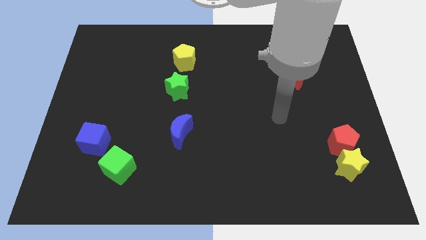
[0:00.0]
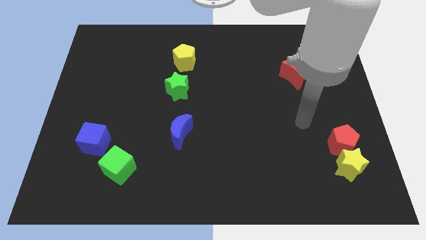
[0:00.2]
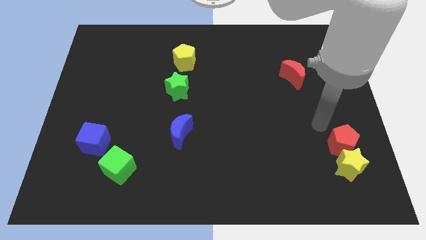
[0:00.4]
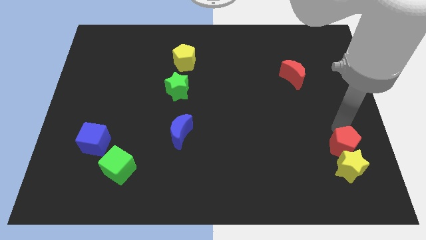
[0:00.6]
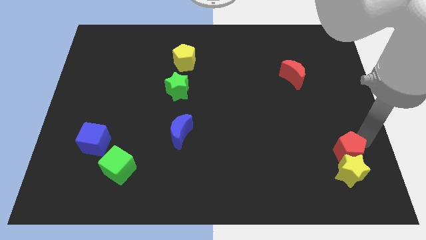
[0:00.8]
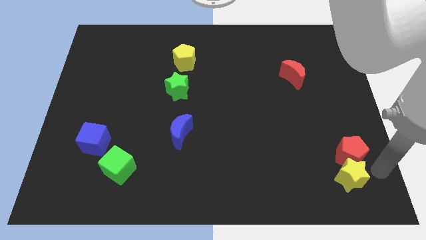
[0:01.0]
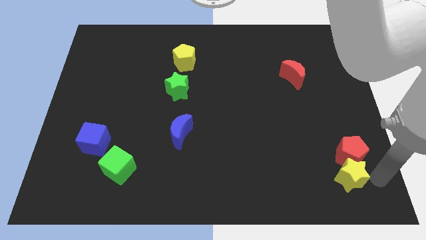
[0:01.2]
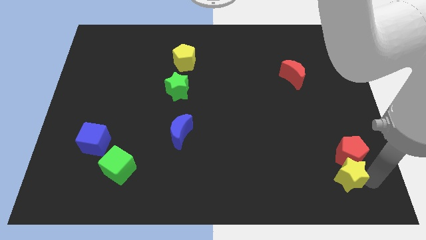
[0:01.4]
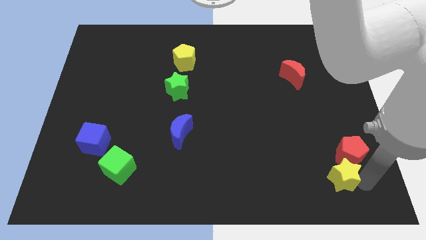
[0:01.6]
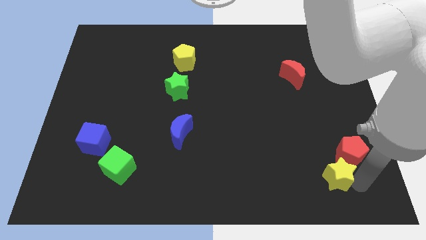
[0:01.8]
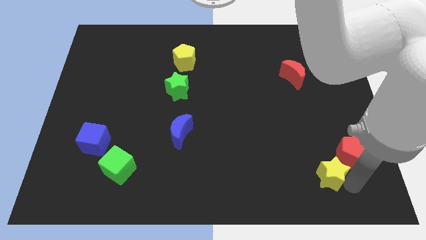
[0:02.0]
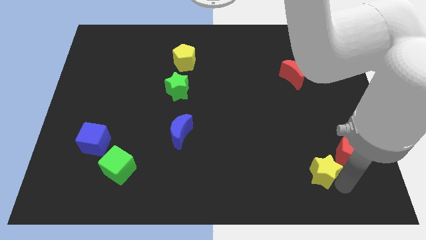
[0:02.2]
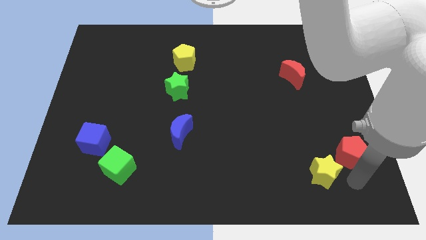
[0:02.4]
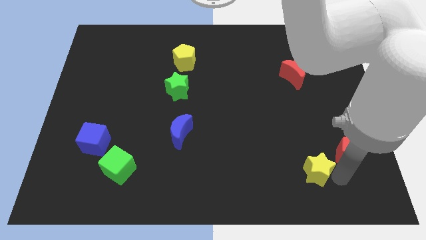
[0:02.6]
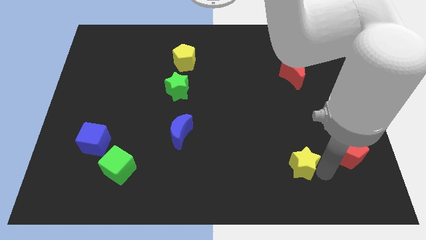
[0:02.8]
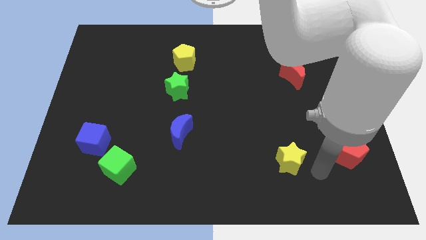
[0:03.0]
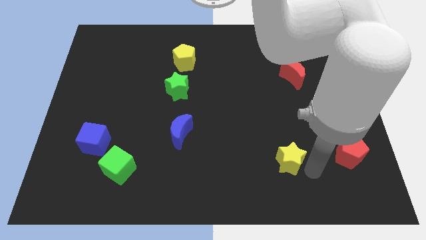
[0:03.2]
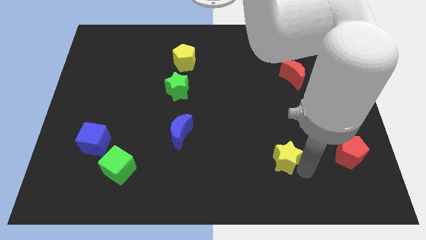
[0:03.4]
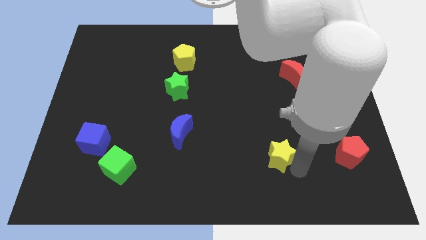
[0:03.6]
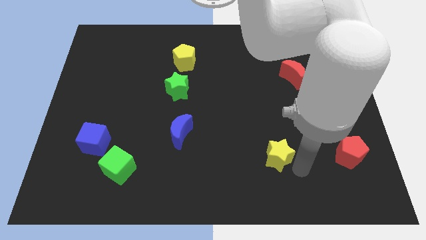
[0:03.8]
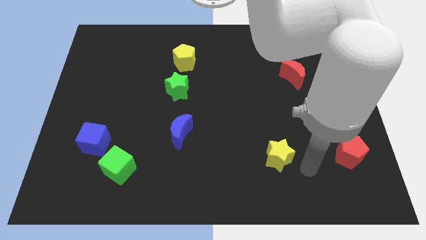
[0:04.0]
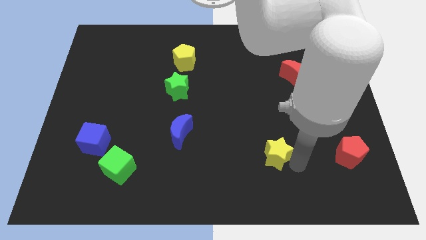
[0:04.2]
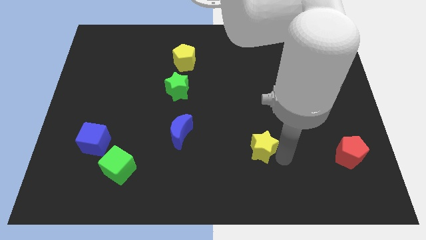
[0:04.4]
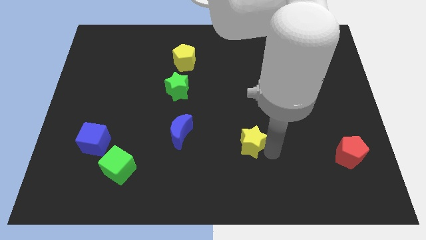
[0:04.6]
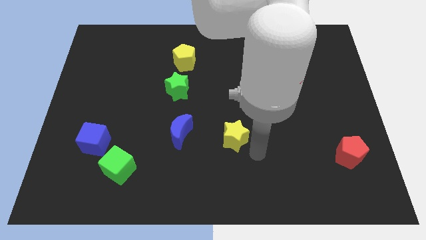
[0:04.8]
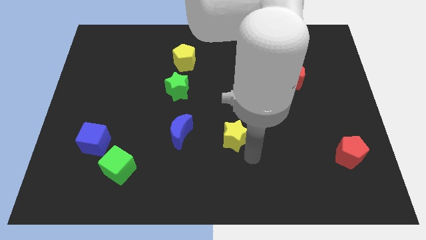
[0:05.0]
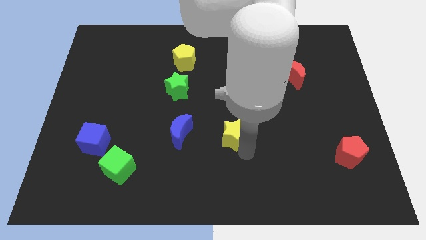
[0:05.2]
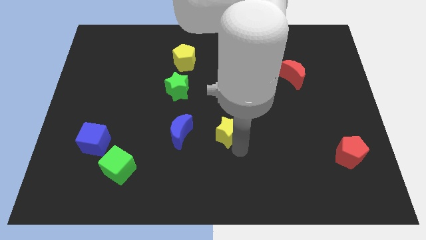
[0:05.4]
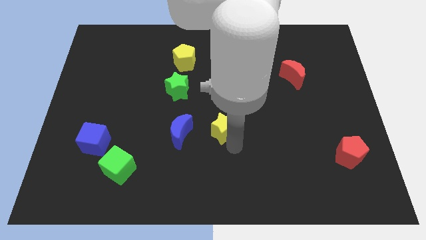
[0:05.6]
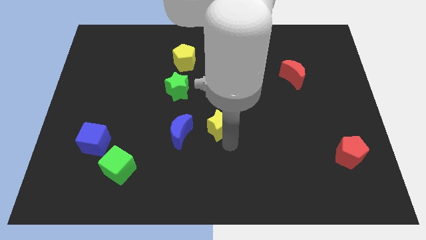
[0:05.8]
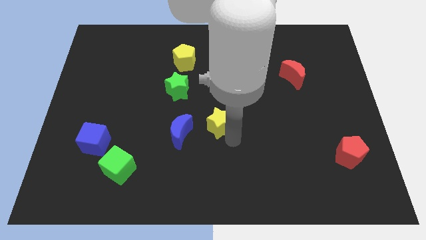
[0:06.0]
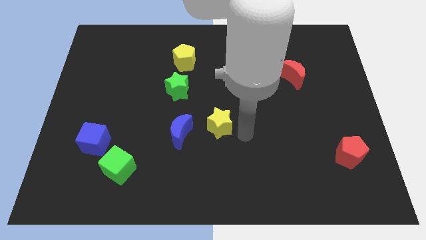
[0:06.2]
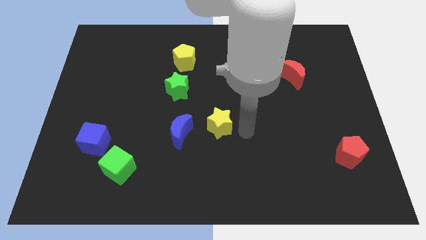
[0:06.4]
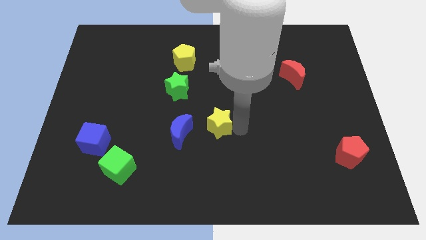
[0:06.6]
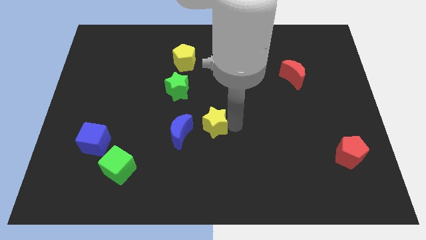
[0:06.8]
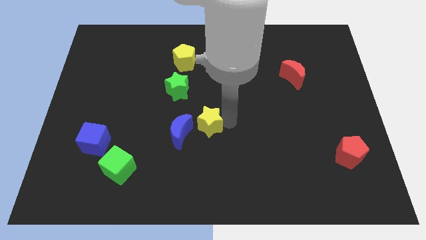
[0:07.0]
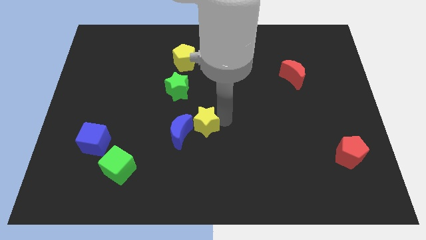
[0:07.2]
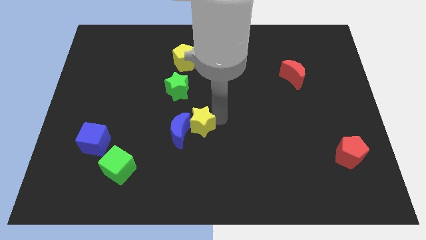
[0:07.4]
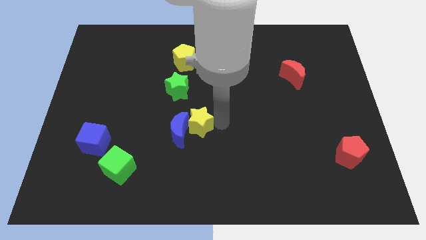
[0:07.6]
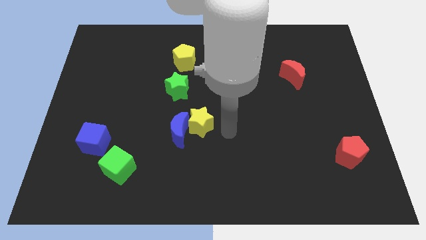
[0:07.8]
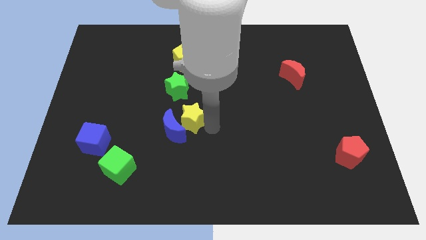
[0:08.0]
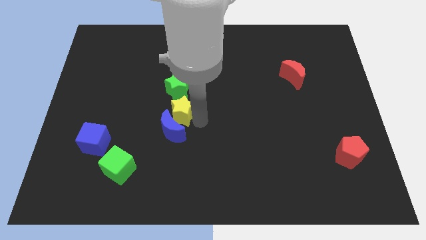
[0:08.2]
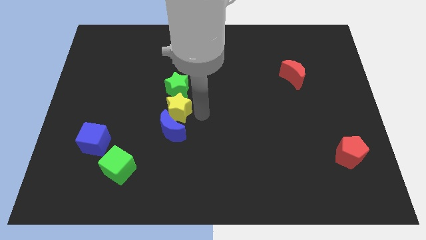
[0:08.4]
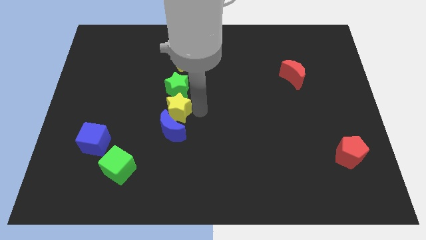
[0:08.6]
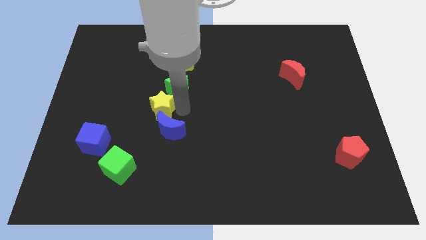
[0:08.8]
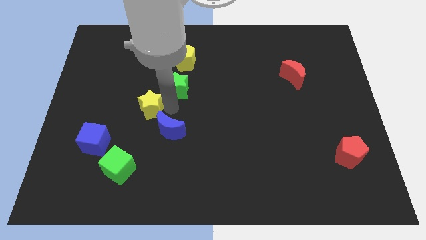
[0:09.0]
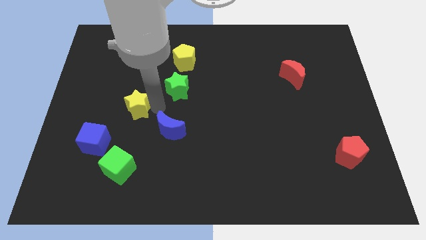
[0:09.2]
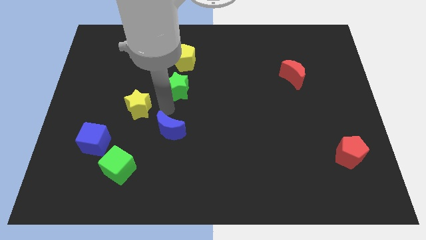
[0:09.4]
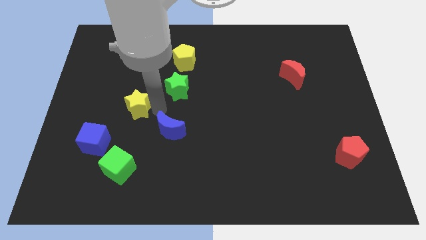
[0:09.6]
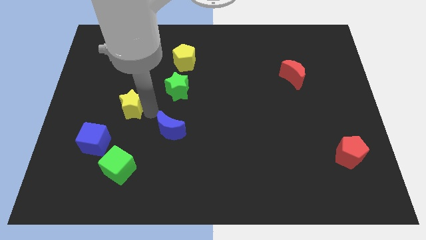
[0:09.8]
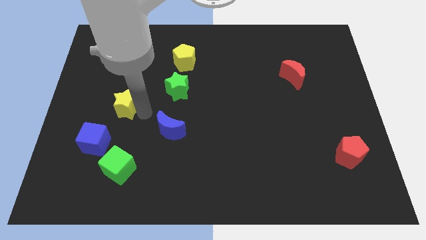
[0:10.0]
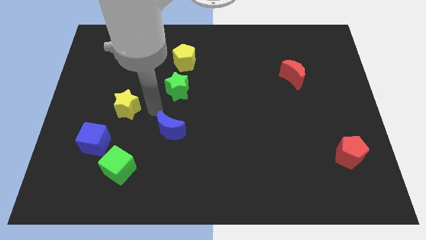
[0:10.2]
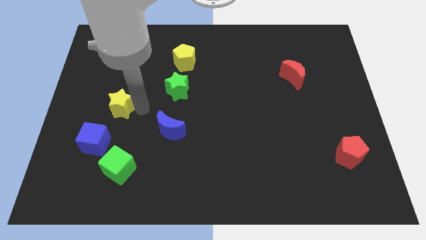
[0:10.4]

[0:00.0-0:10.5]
push the yellow star above the blue cube

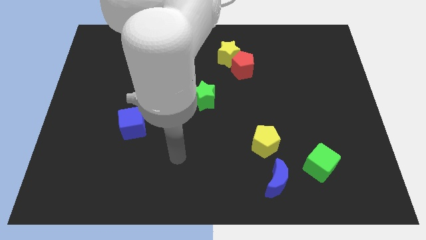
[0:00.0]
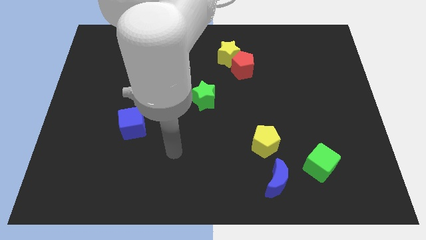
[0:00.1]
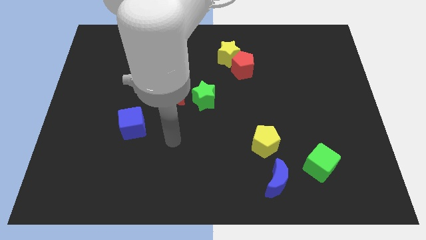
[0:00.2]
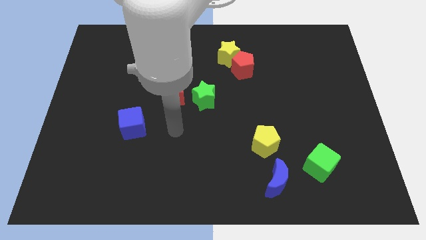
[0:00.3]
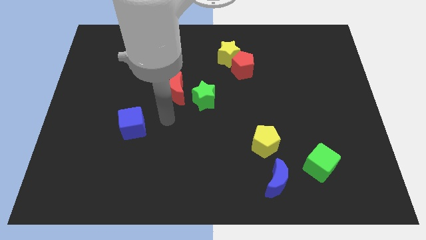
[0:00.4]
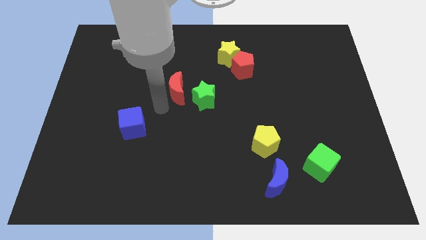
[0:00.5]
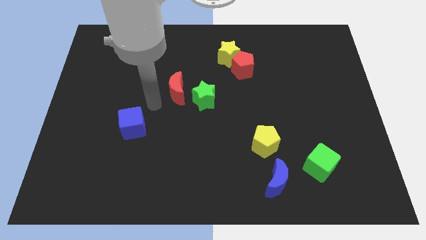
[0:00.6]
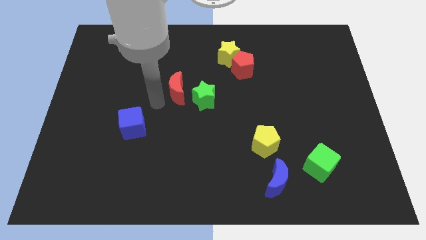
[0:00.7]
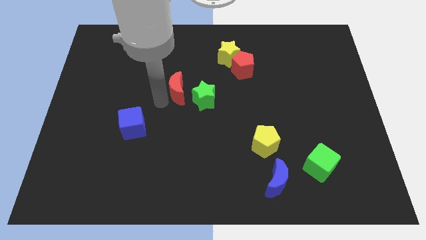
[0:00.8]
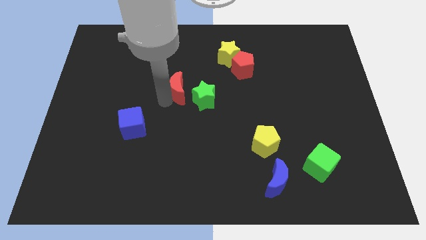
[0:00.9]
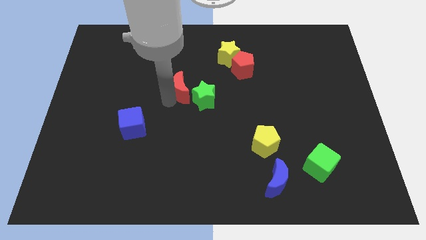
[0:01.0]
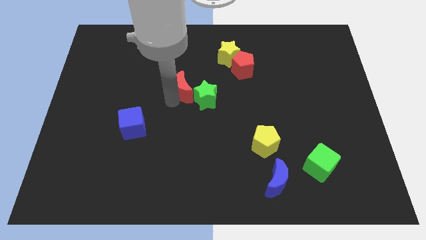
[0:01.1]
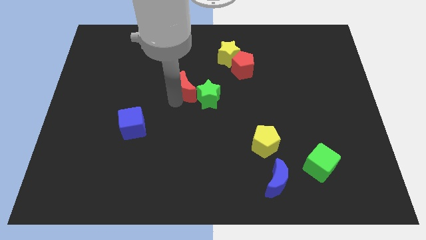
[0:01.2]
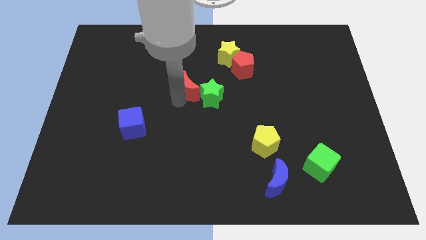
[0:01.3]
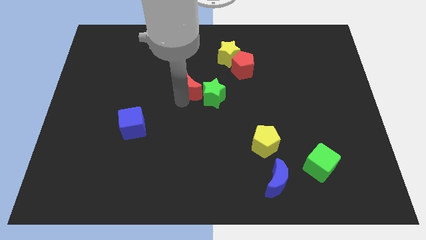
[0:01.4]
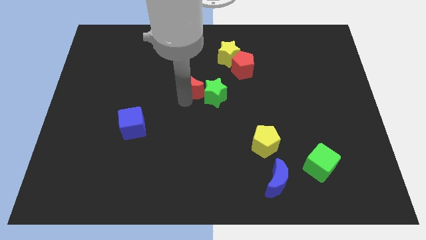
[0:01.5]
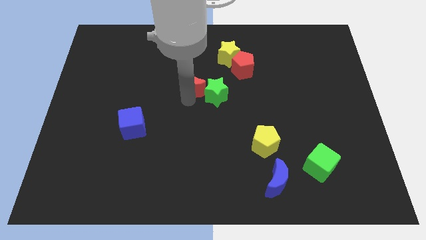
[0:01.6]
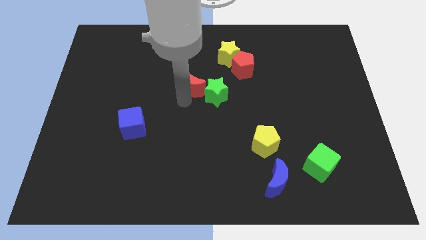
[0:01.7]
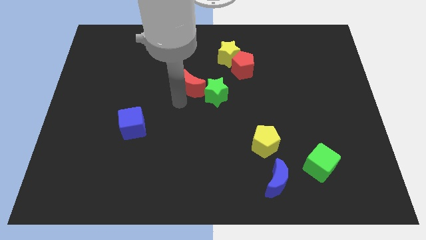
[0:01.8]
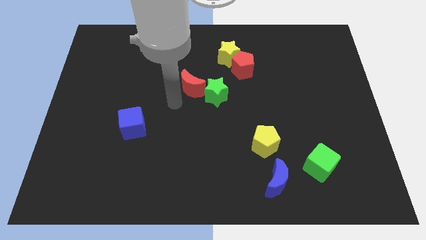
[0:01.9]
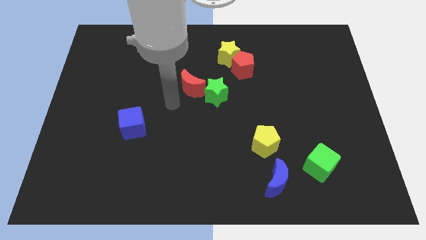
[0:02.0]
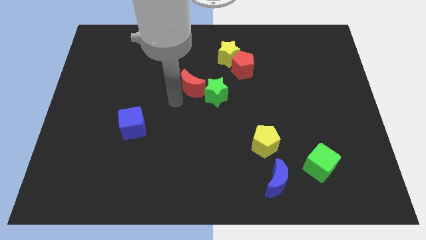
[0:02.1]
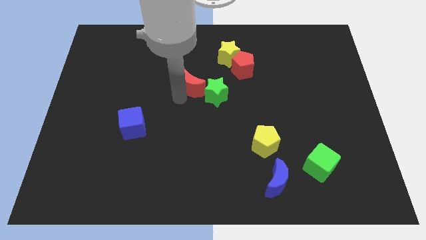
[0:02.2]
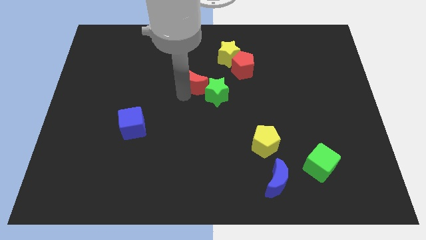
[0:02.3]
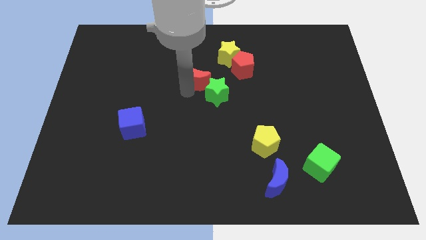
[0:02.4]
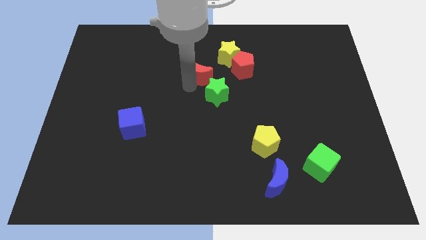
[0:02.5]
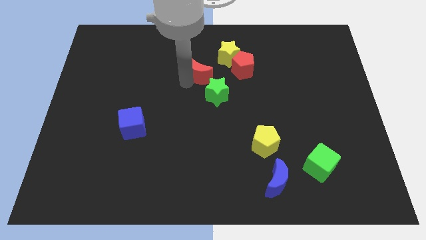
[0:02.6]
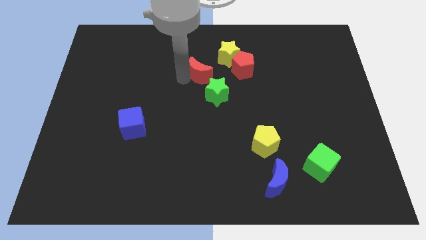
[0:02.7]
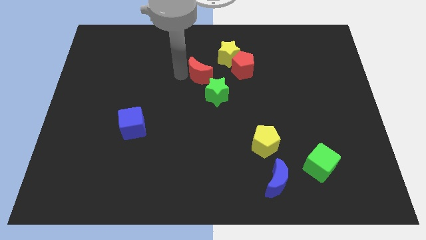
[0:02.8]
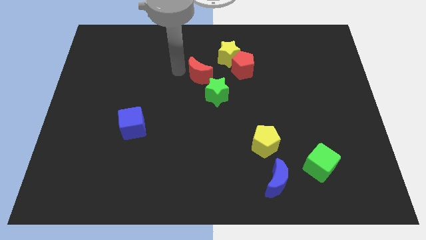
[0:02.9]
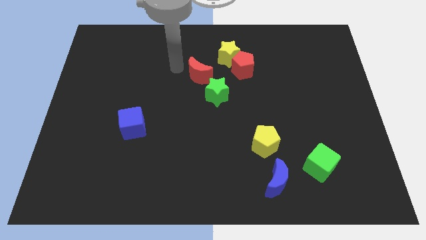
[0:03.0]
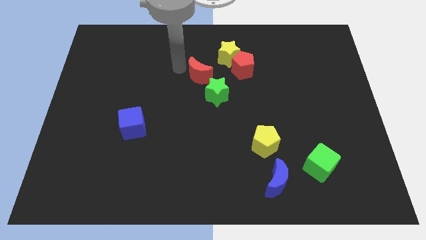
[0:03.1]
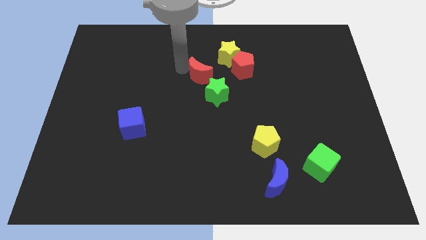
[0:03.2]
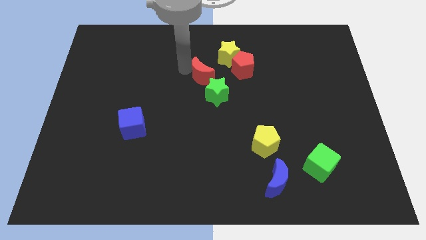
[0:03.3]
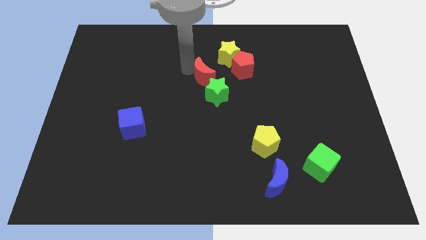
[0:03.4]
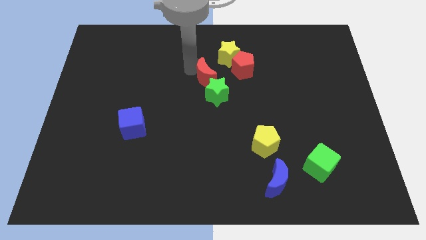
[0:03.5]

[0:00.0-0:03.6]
put the red moon to the bottom left side of the red pentagon
